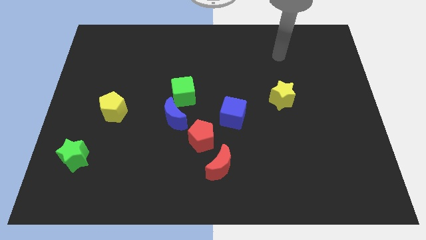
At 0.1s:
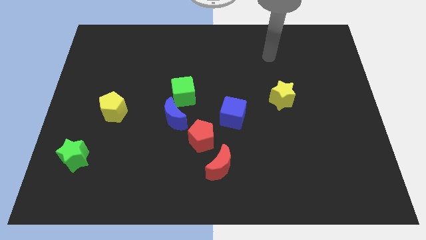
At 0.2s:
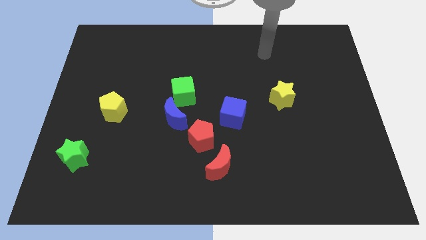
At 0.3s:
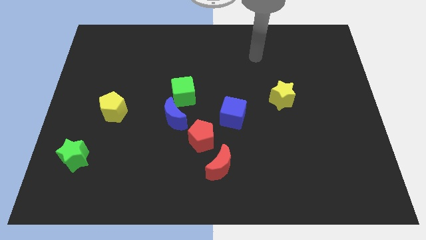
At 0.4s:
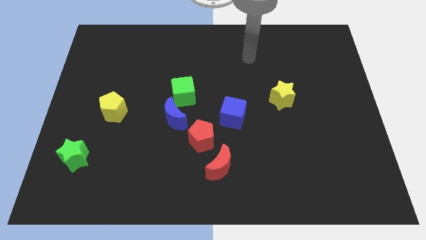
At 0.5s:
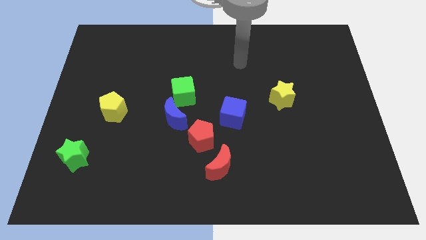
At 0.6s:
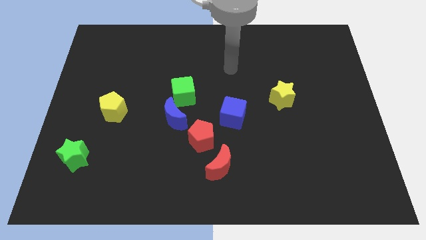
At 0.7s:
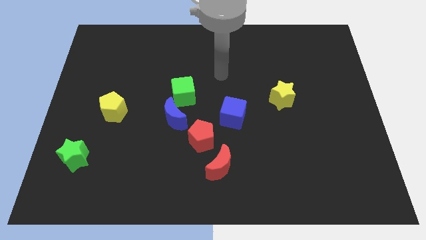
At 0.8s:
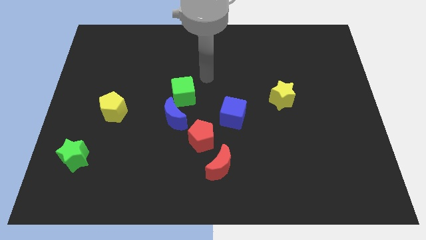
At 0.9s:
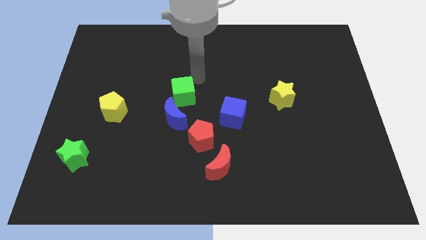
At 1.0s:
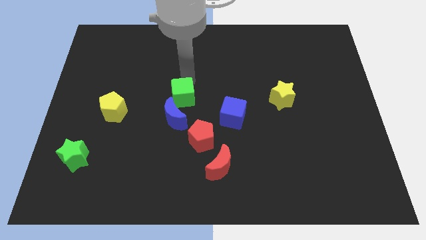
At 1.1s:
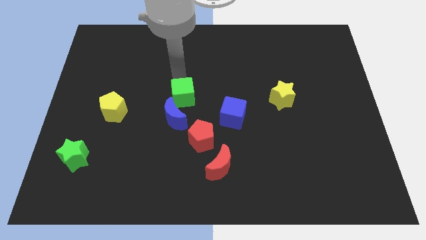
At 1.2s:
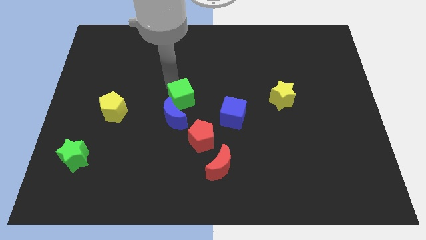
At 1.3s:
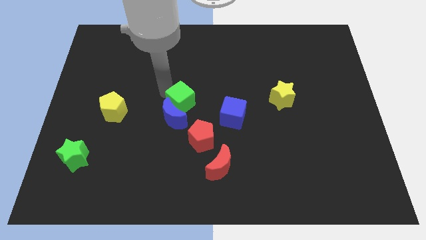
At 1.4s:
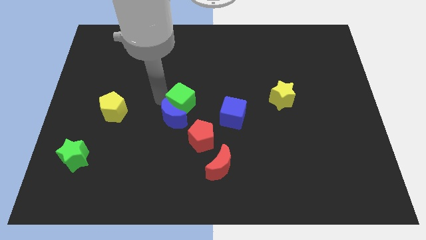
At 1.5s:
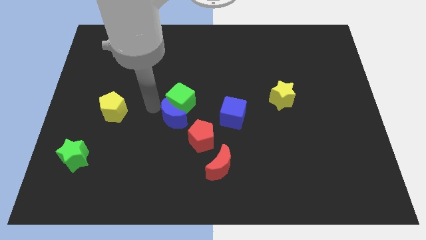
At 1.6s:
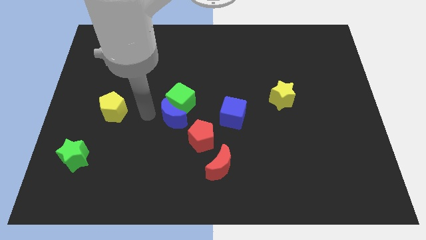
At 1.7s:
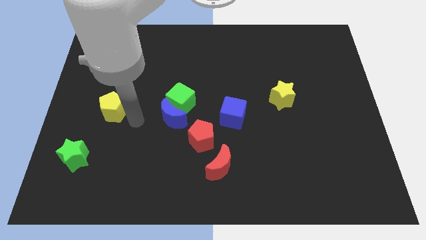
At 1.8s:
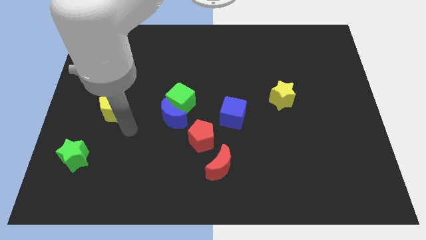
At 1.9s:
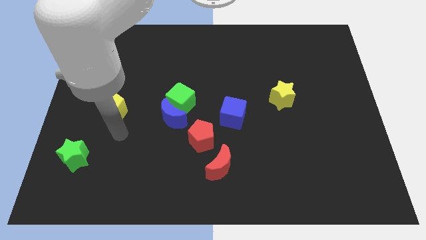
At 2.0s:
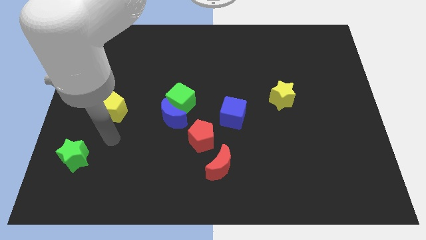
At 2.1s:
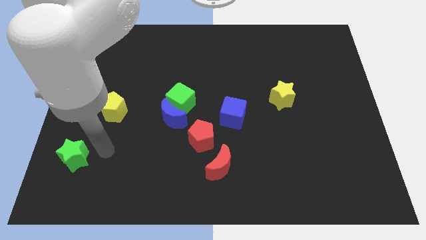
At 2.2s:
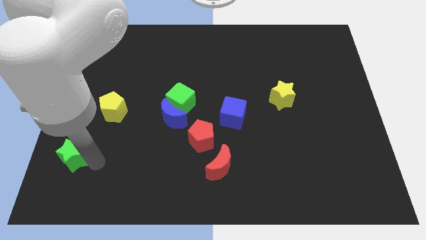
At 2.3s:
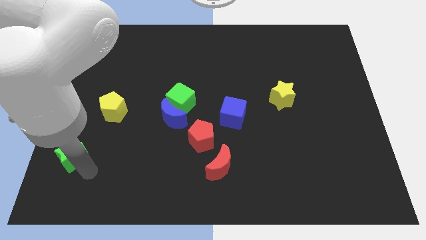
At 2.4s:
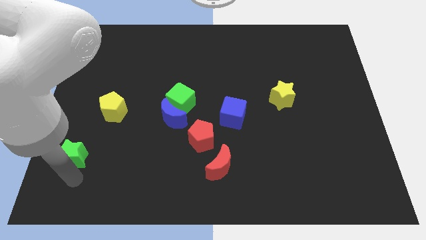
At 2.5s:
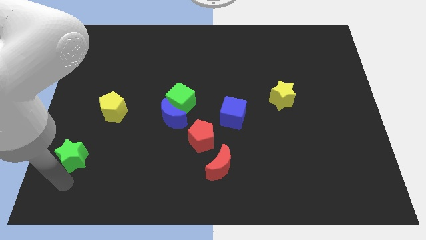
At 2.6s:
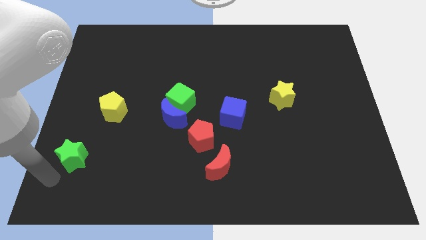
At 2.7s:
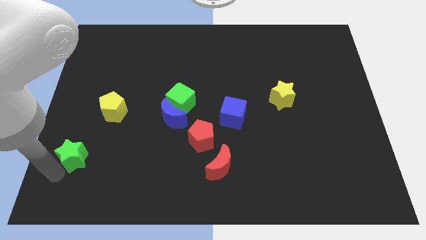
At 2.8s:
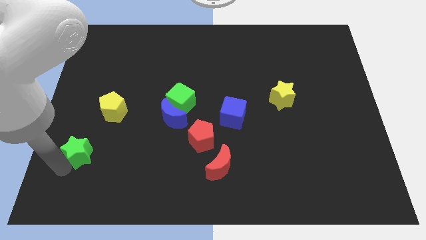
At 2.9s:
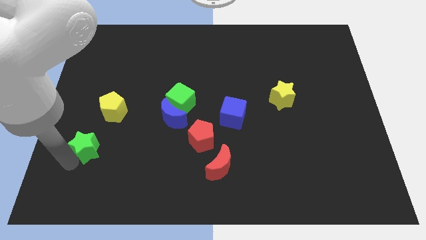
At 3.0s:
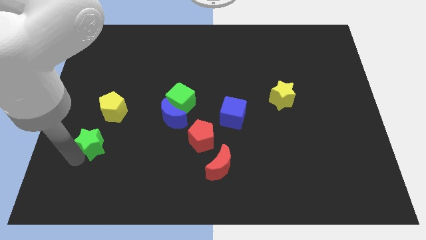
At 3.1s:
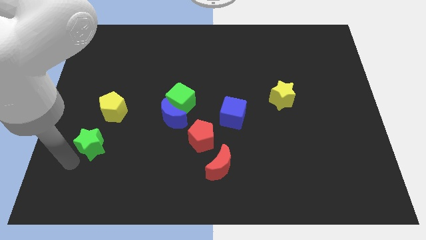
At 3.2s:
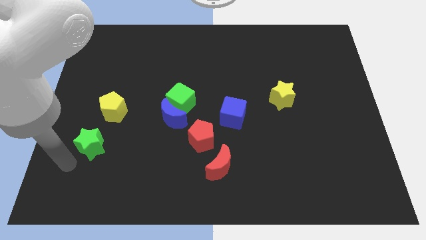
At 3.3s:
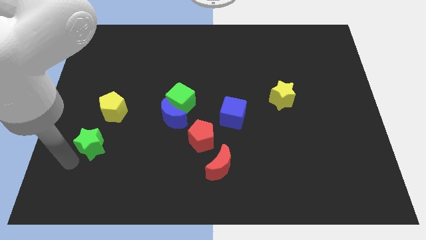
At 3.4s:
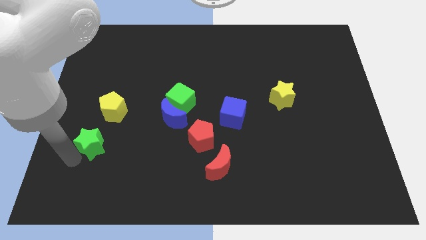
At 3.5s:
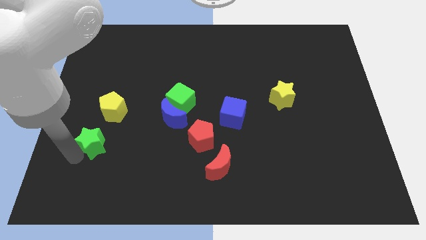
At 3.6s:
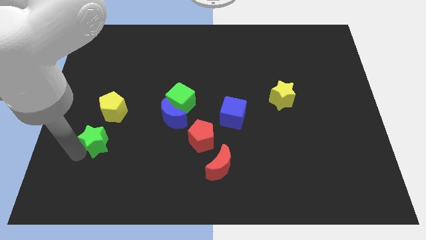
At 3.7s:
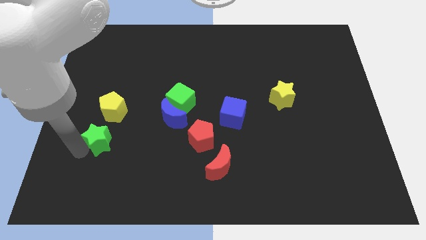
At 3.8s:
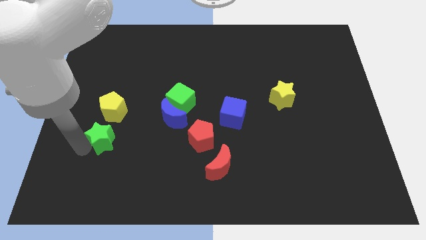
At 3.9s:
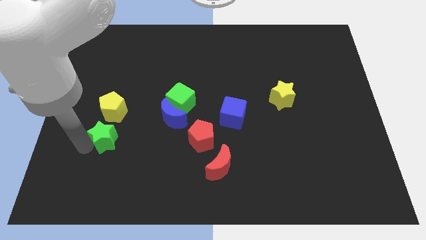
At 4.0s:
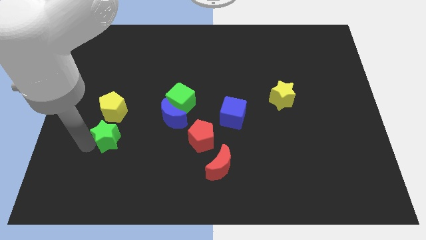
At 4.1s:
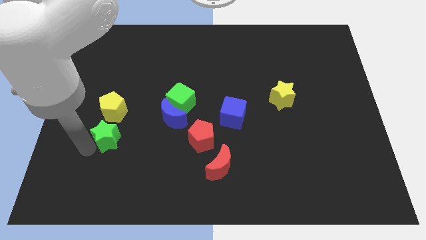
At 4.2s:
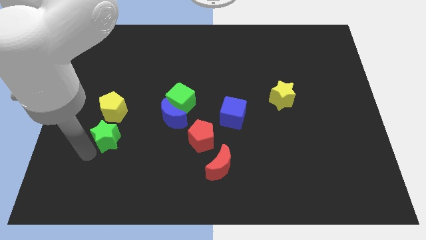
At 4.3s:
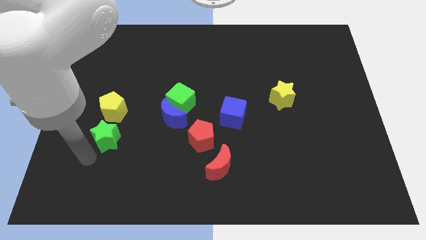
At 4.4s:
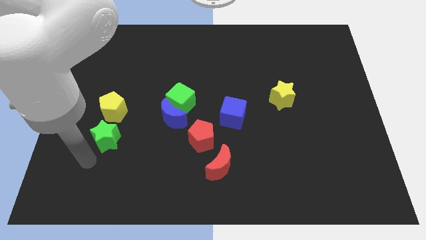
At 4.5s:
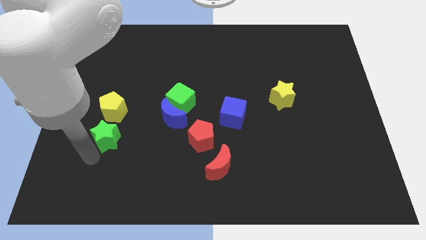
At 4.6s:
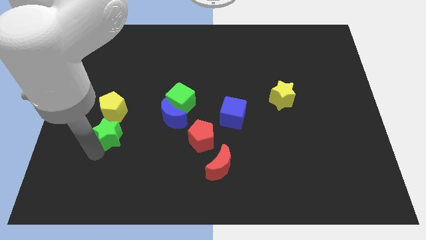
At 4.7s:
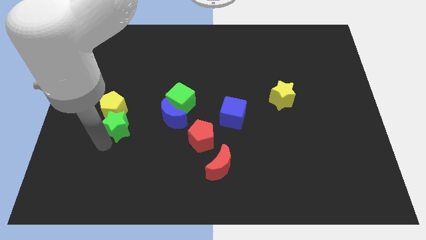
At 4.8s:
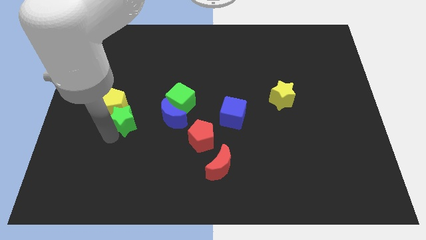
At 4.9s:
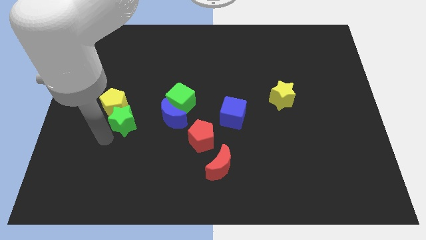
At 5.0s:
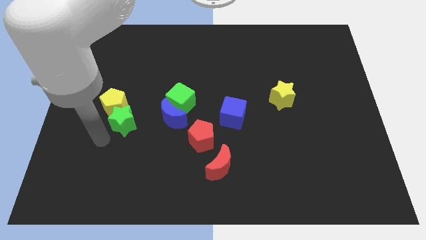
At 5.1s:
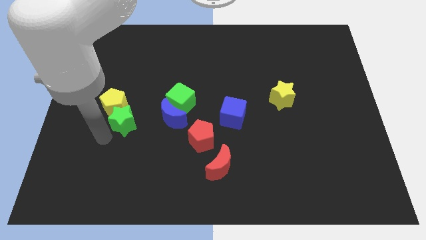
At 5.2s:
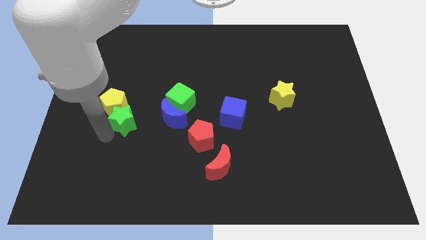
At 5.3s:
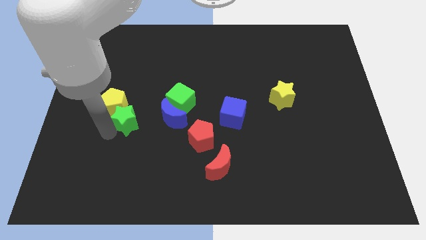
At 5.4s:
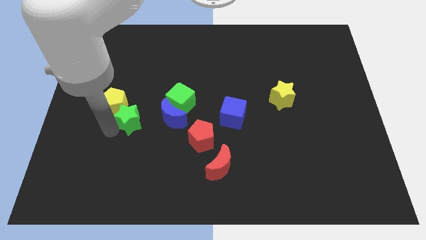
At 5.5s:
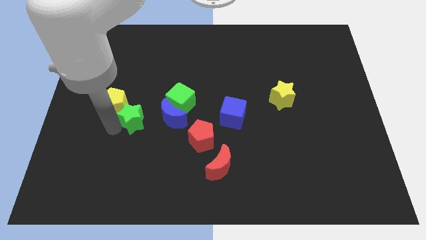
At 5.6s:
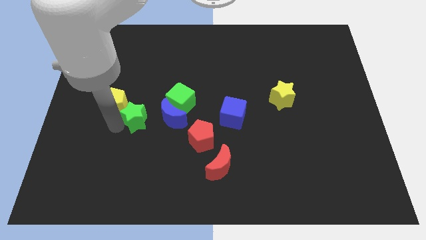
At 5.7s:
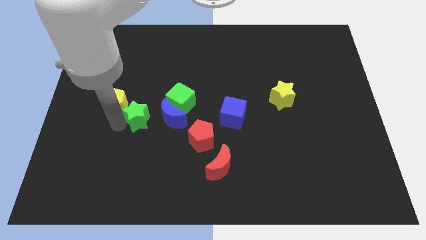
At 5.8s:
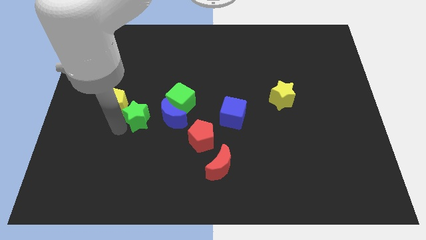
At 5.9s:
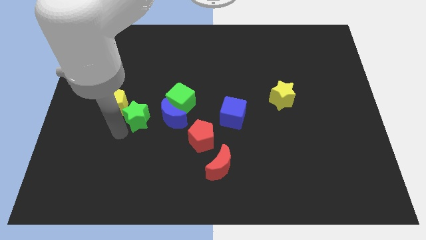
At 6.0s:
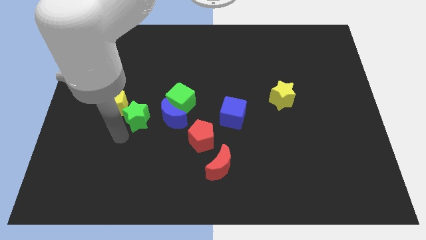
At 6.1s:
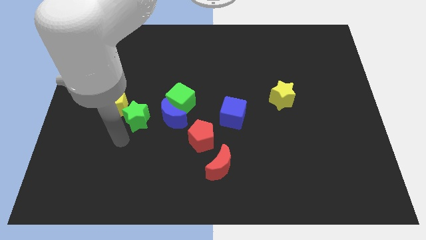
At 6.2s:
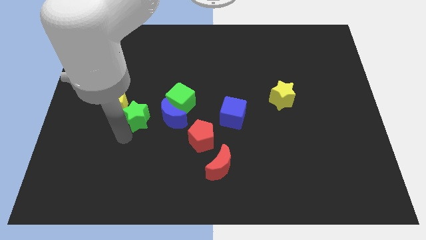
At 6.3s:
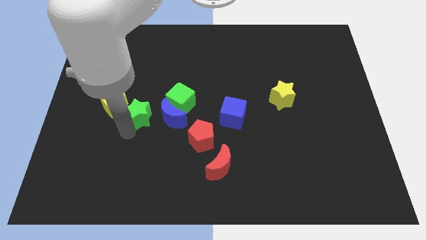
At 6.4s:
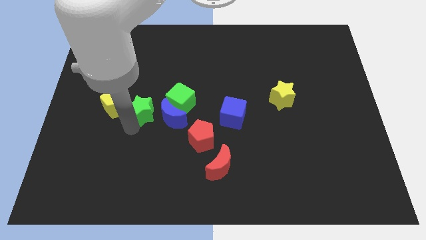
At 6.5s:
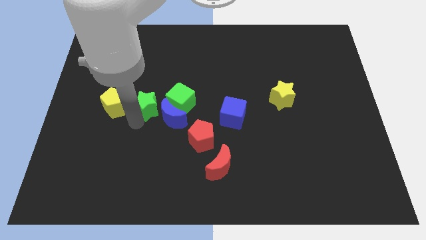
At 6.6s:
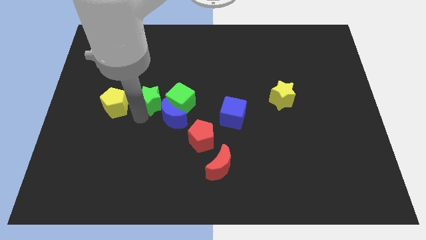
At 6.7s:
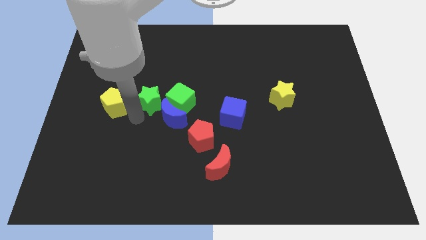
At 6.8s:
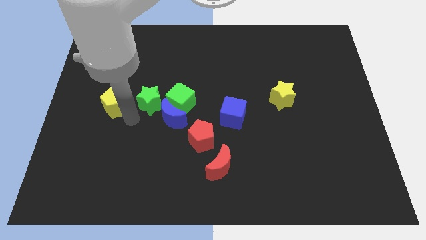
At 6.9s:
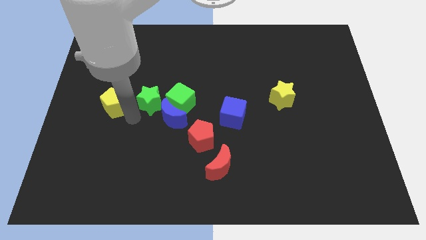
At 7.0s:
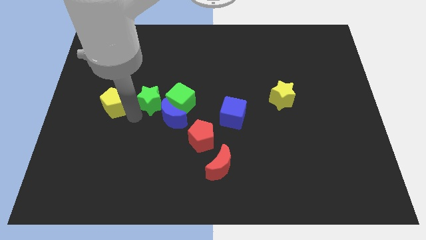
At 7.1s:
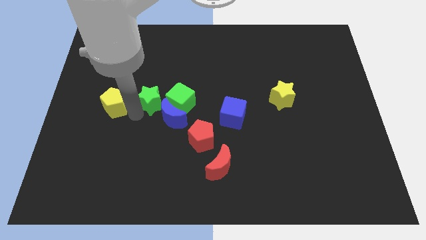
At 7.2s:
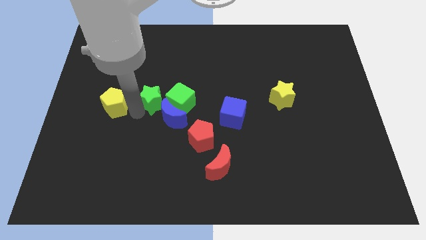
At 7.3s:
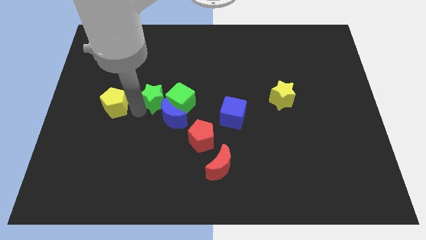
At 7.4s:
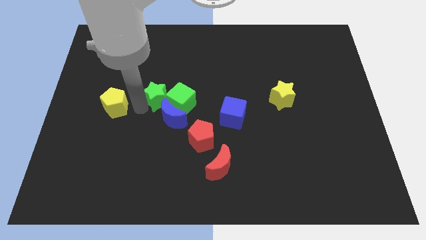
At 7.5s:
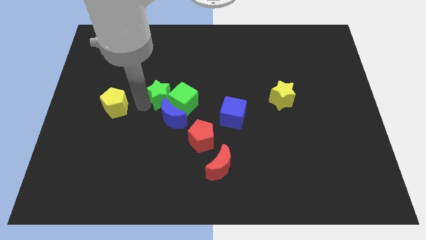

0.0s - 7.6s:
move the green star to the center of the board

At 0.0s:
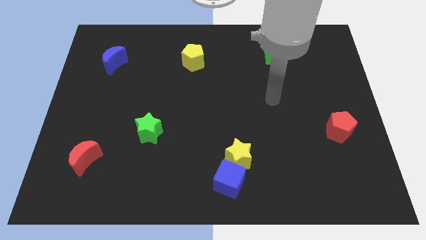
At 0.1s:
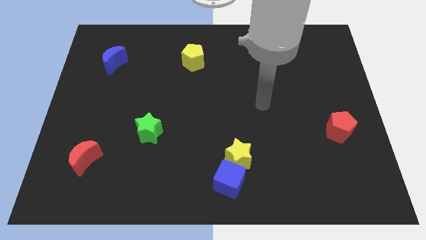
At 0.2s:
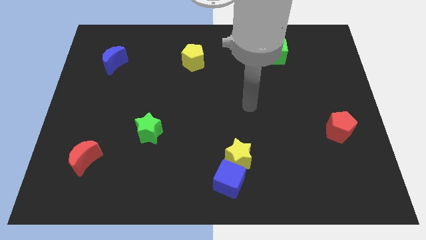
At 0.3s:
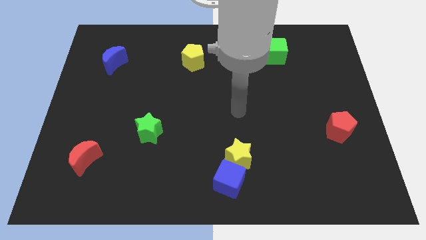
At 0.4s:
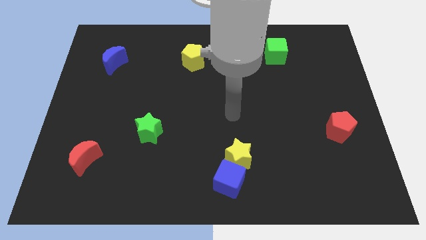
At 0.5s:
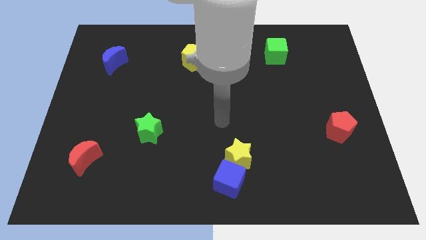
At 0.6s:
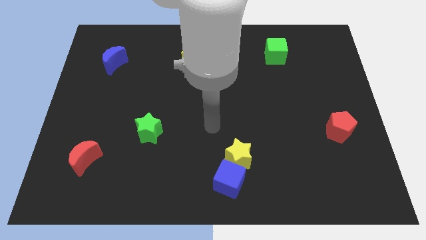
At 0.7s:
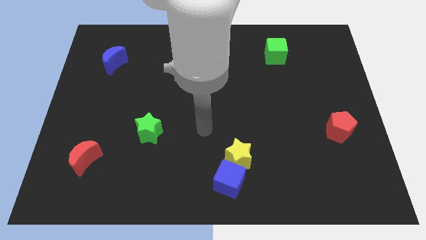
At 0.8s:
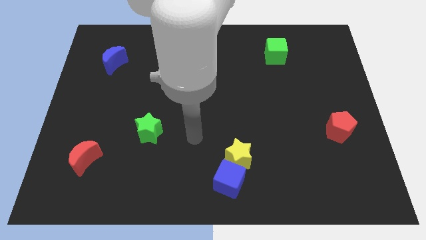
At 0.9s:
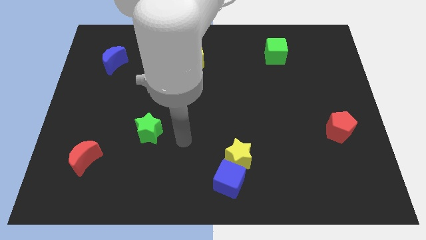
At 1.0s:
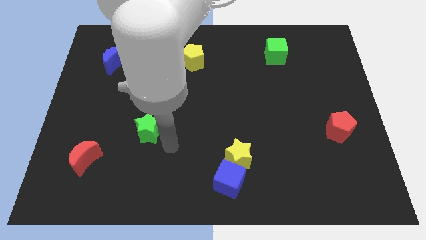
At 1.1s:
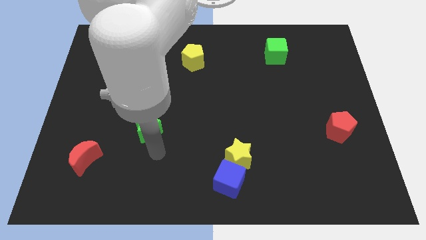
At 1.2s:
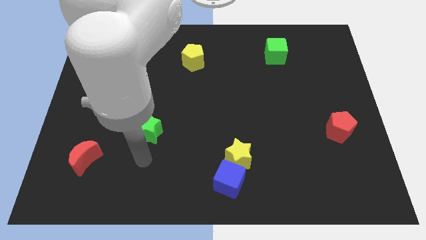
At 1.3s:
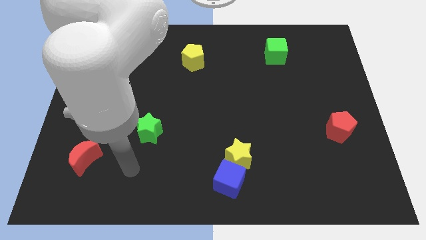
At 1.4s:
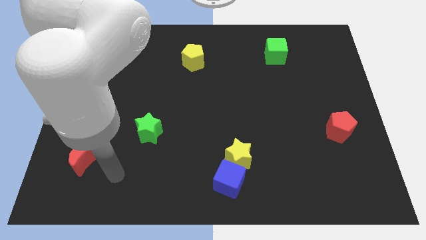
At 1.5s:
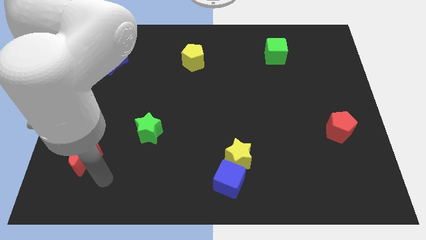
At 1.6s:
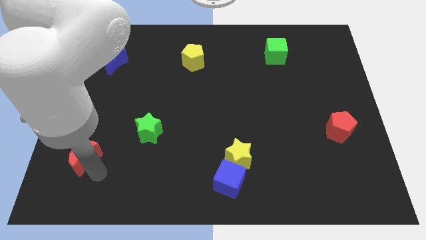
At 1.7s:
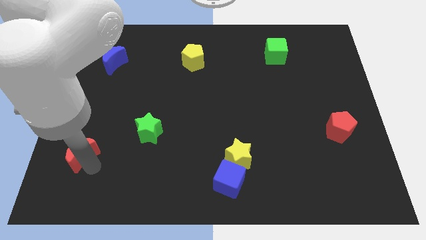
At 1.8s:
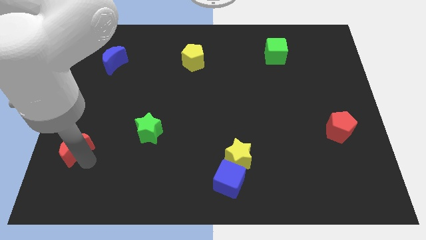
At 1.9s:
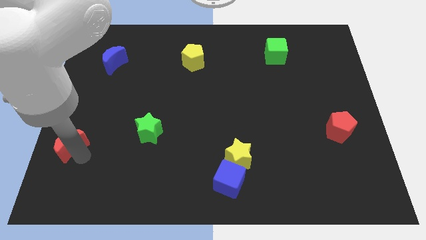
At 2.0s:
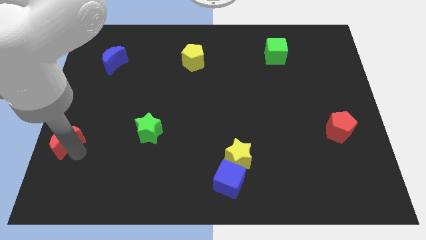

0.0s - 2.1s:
push the red moon to the left side of the board
